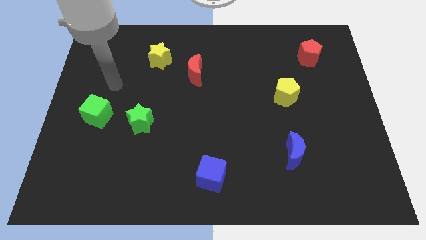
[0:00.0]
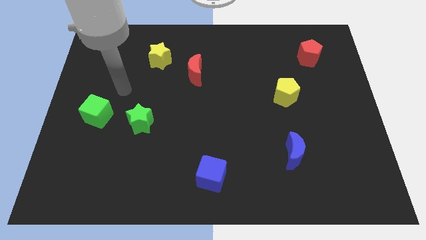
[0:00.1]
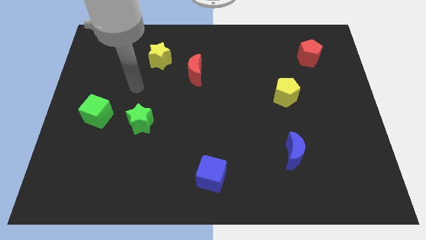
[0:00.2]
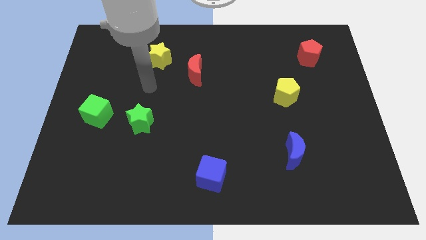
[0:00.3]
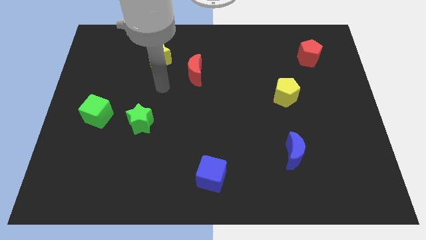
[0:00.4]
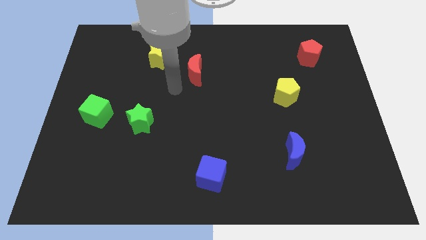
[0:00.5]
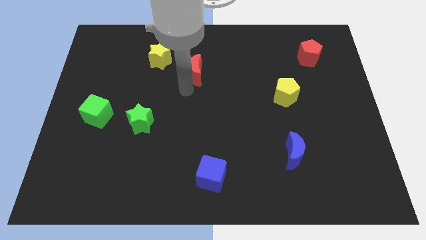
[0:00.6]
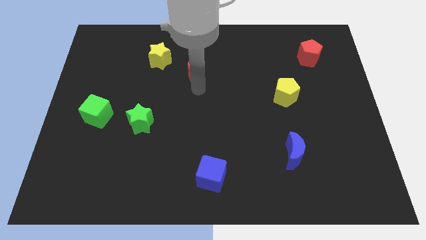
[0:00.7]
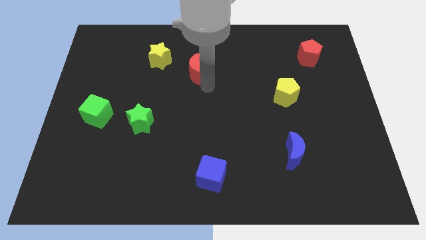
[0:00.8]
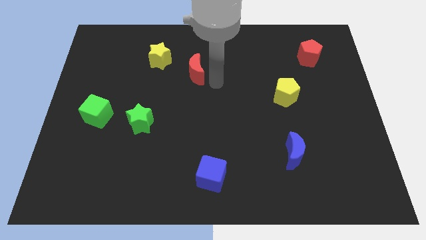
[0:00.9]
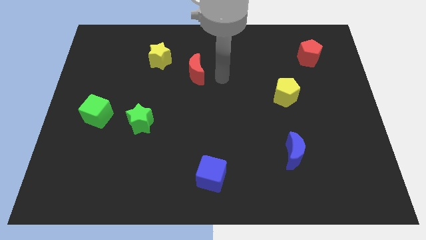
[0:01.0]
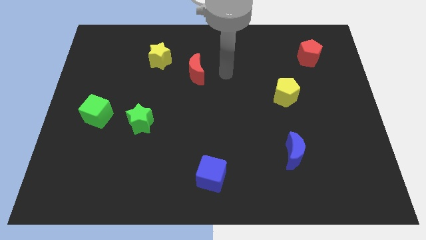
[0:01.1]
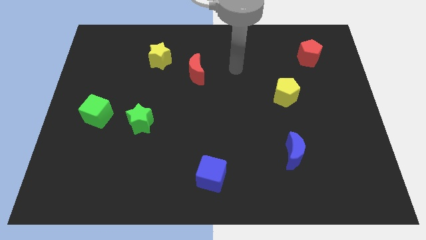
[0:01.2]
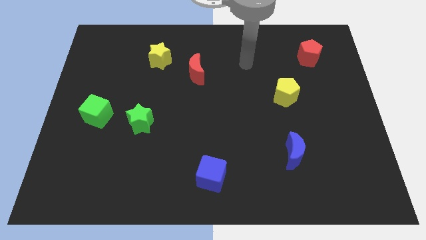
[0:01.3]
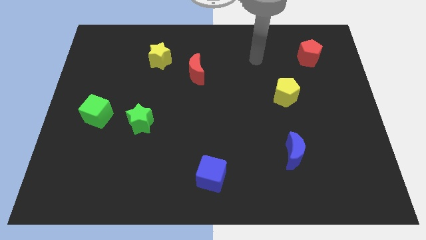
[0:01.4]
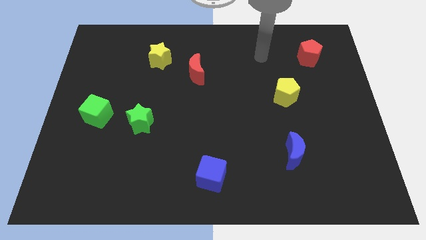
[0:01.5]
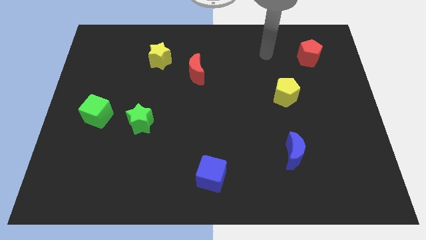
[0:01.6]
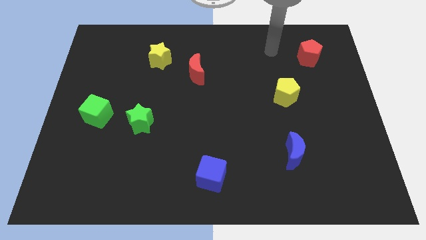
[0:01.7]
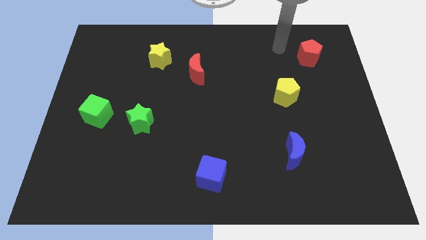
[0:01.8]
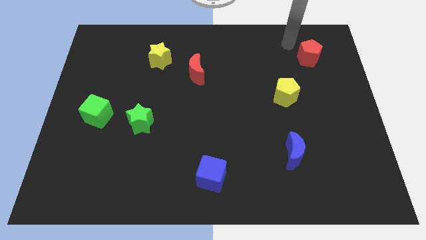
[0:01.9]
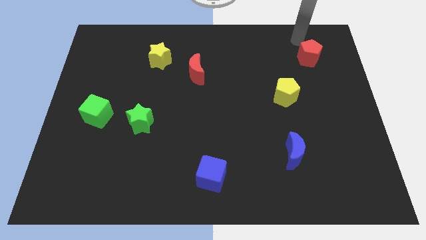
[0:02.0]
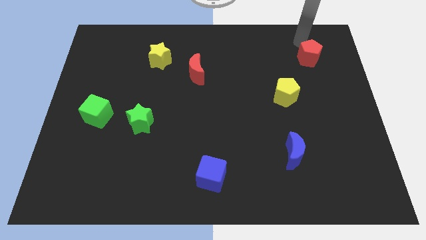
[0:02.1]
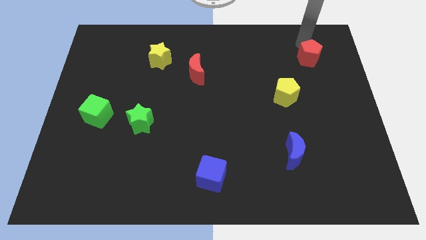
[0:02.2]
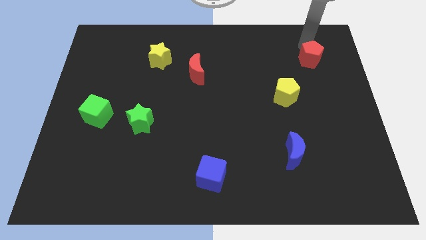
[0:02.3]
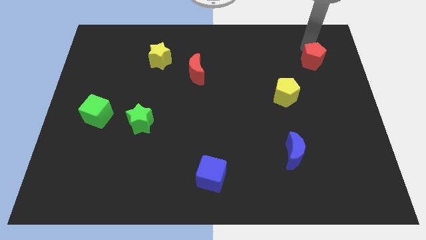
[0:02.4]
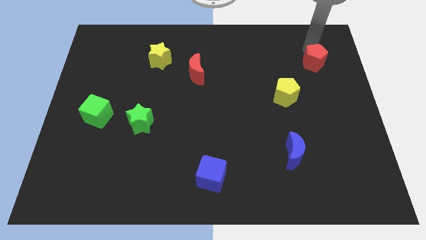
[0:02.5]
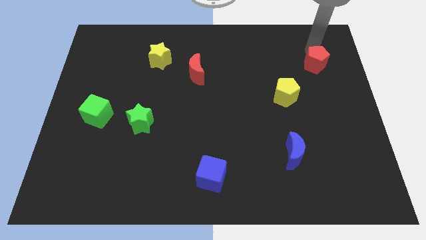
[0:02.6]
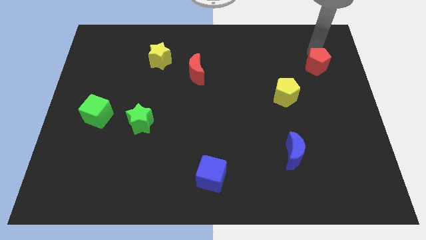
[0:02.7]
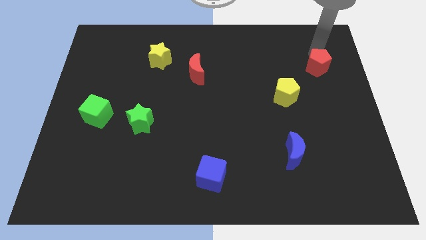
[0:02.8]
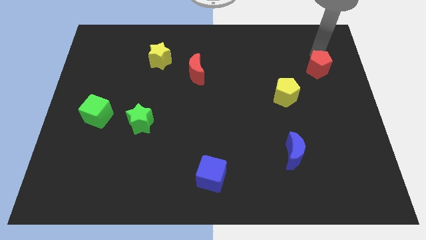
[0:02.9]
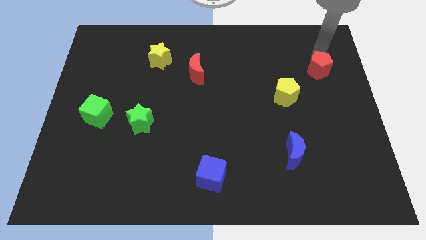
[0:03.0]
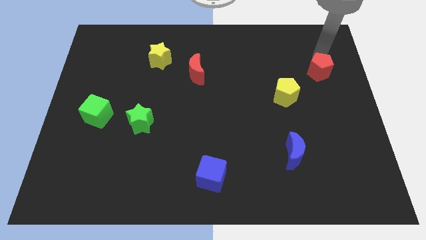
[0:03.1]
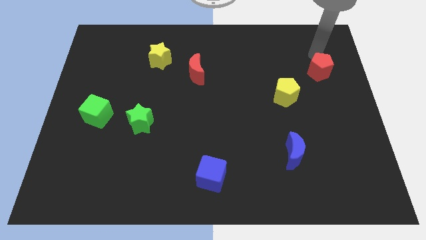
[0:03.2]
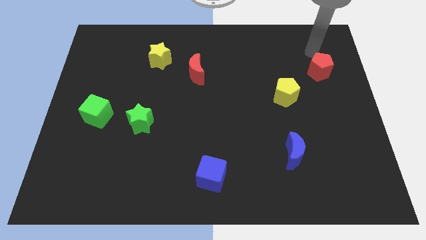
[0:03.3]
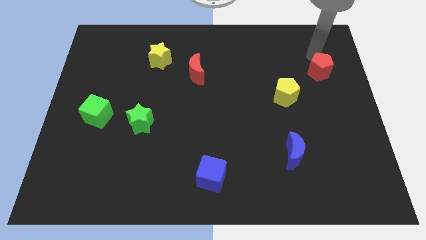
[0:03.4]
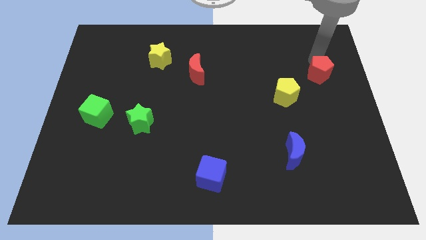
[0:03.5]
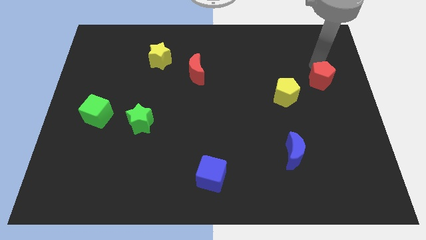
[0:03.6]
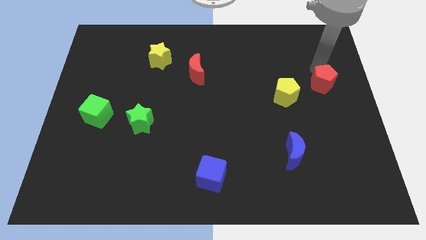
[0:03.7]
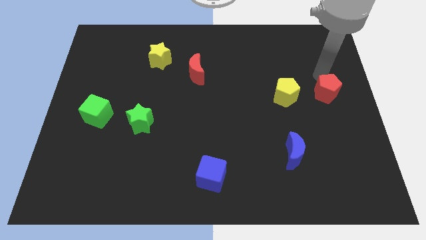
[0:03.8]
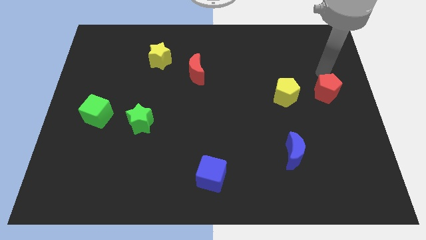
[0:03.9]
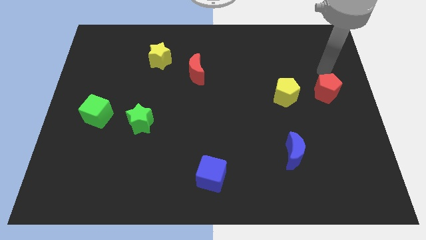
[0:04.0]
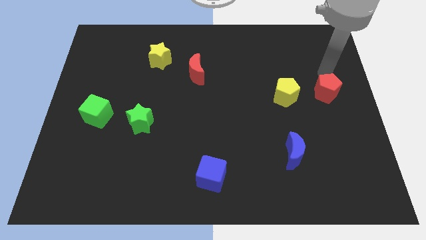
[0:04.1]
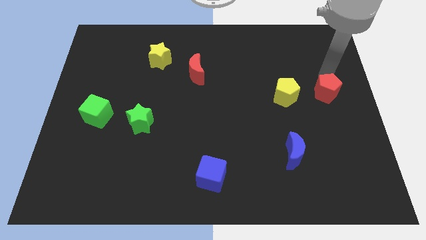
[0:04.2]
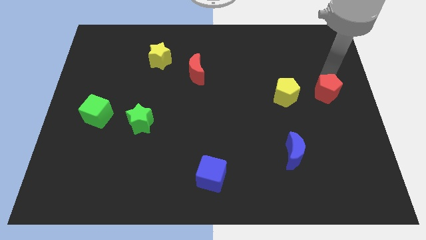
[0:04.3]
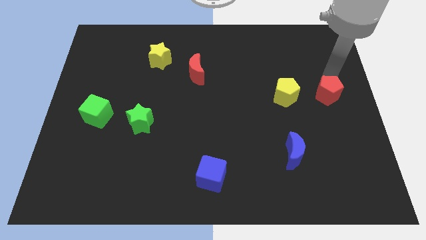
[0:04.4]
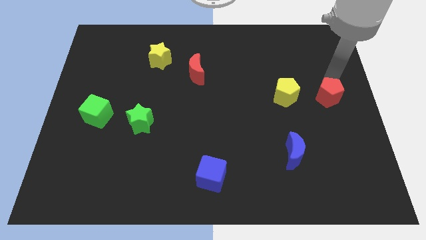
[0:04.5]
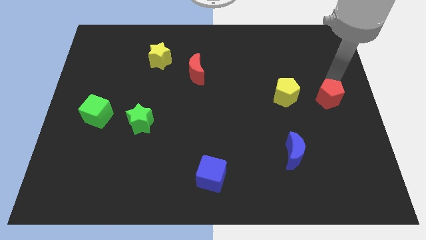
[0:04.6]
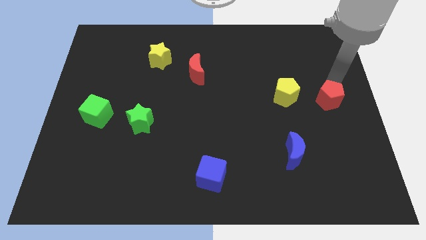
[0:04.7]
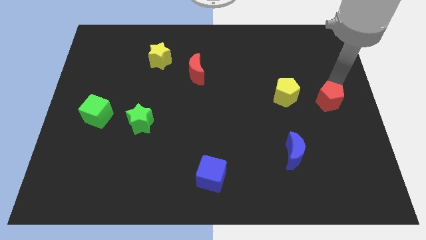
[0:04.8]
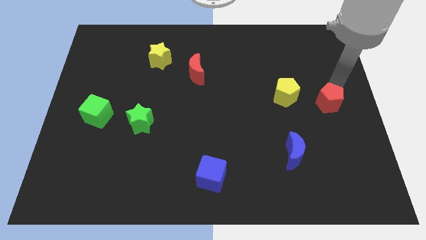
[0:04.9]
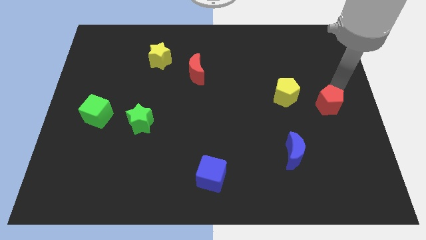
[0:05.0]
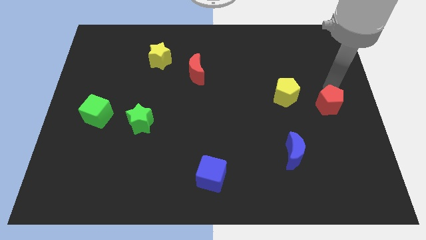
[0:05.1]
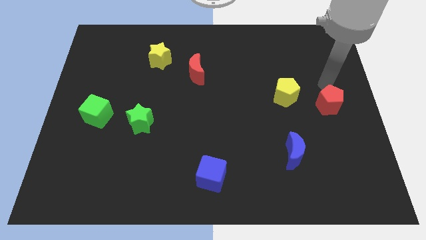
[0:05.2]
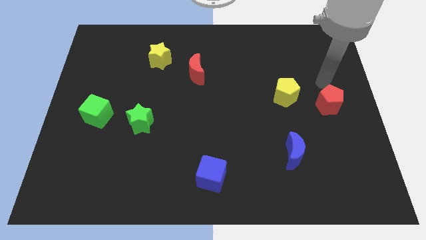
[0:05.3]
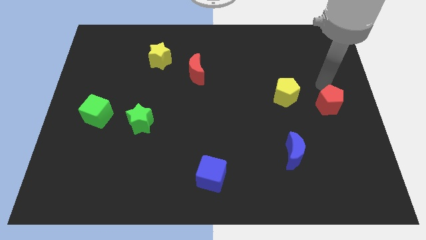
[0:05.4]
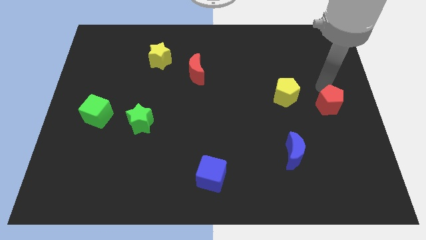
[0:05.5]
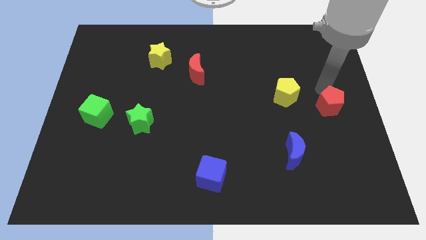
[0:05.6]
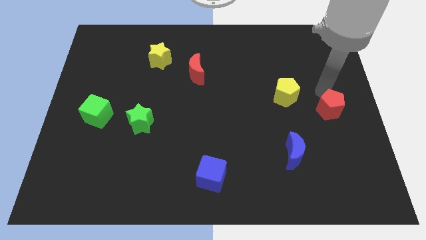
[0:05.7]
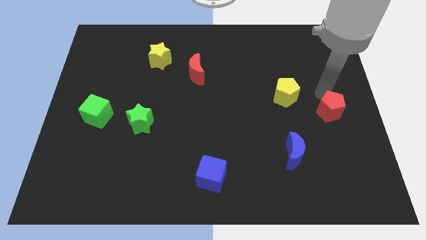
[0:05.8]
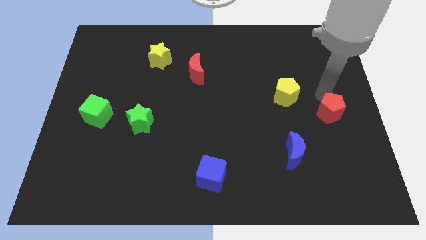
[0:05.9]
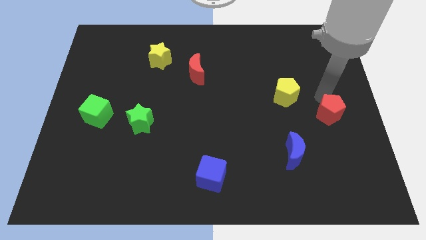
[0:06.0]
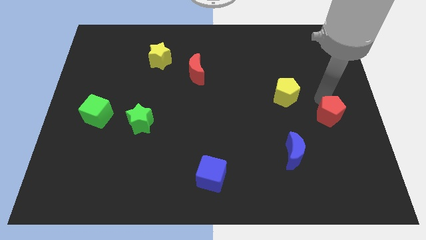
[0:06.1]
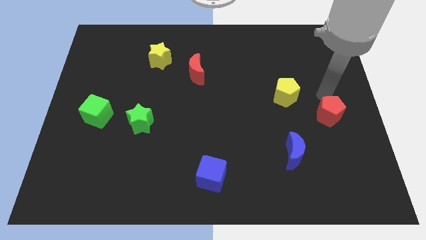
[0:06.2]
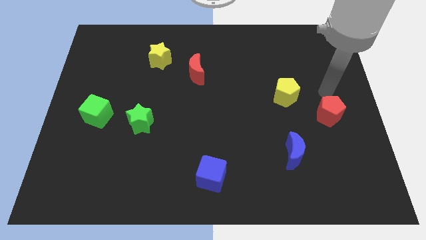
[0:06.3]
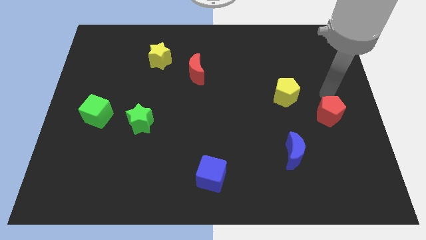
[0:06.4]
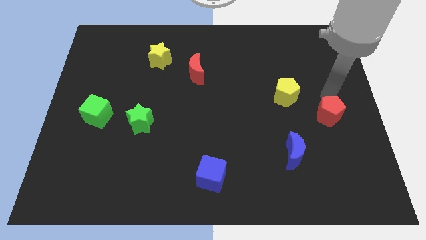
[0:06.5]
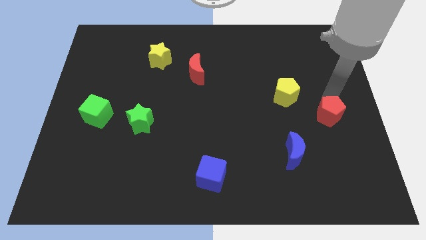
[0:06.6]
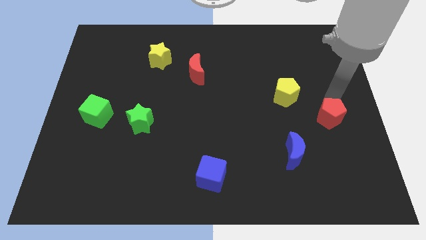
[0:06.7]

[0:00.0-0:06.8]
slide the red pentagon down

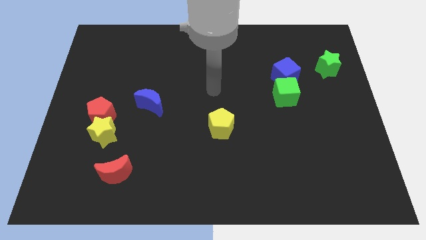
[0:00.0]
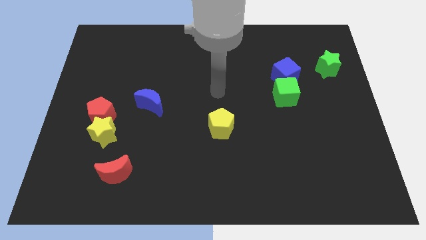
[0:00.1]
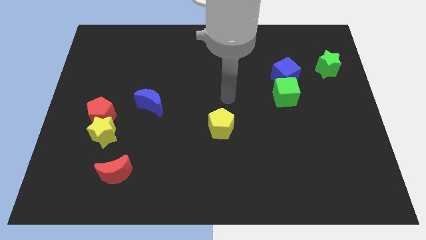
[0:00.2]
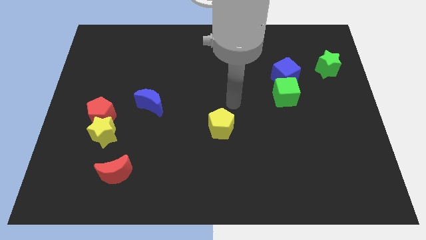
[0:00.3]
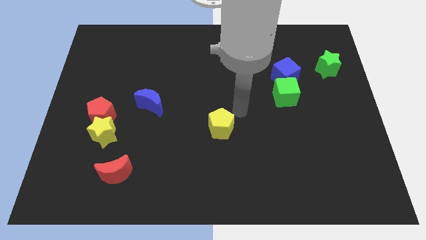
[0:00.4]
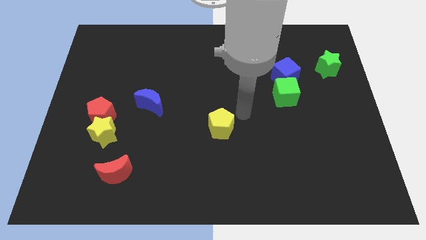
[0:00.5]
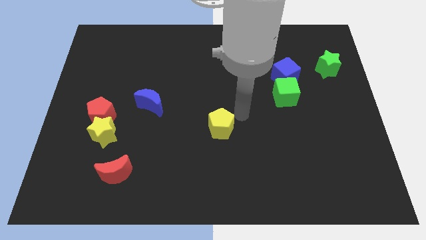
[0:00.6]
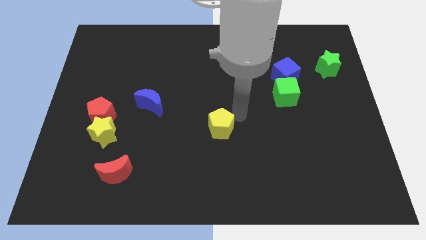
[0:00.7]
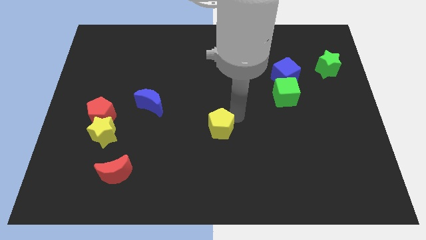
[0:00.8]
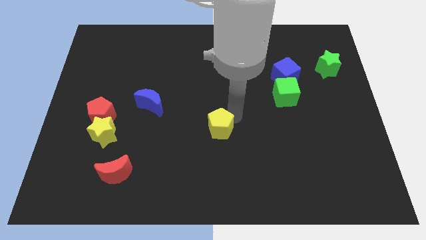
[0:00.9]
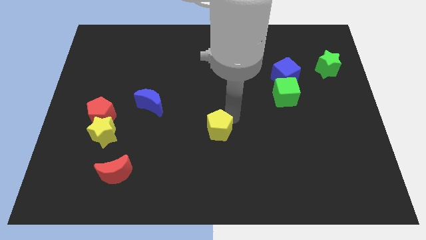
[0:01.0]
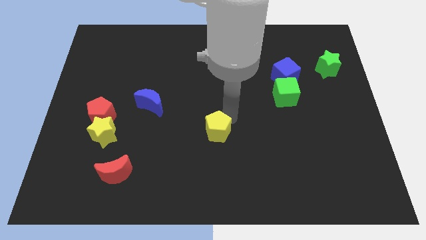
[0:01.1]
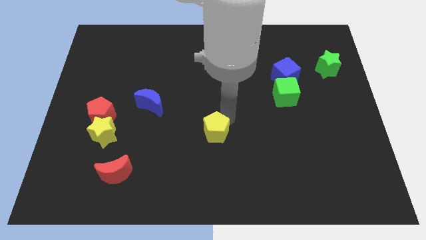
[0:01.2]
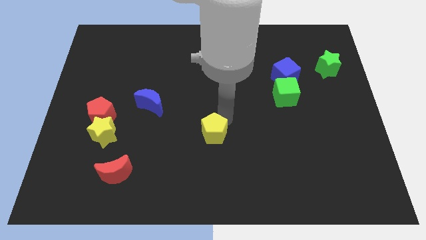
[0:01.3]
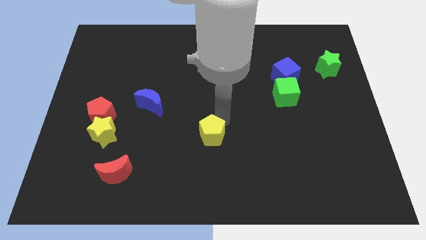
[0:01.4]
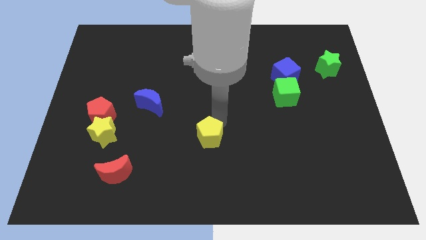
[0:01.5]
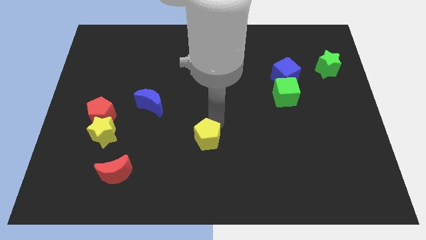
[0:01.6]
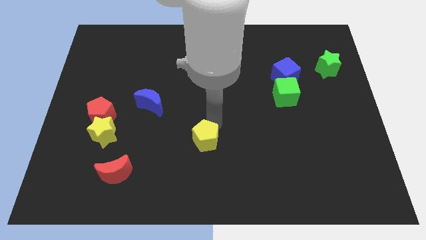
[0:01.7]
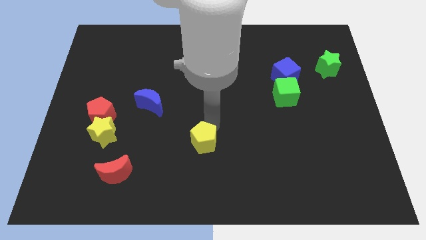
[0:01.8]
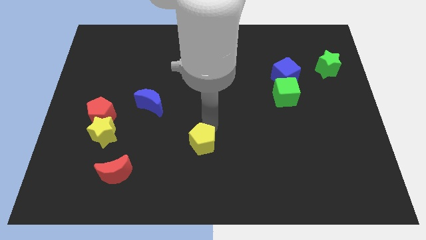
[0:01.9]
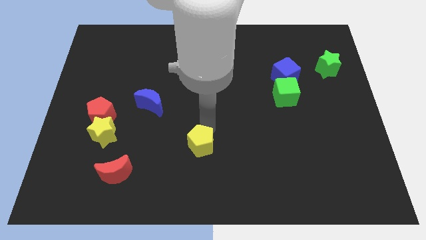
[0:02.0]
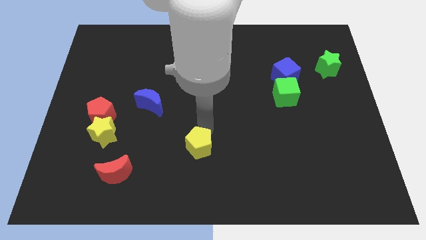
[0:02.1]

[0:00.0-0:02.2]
push the yellow pentagon down and left diagonally a bit
